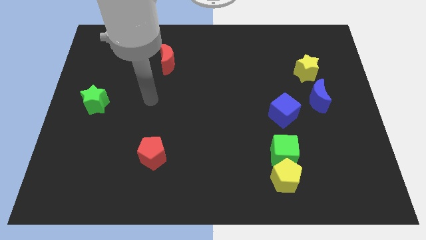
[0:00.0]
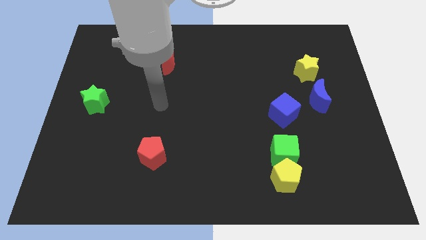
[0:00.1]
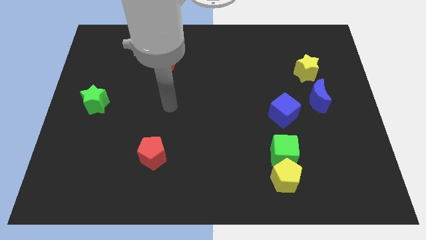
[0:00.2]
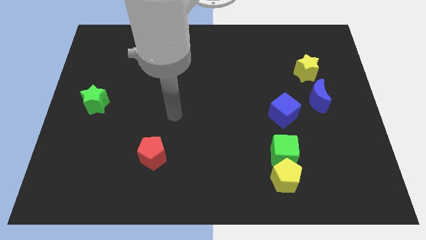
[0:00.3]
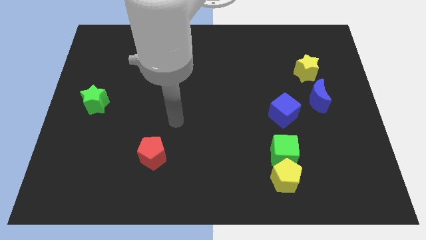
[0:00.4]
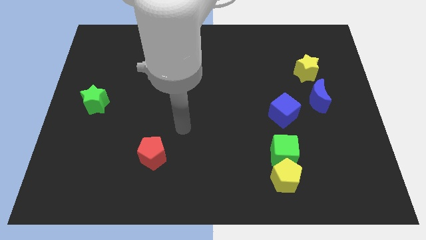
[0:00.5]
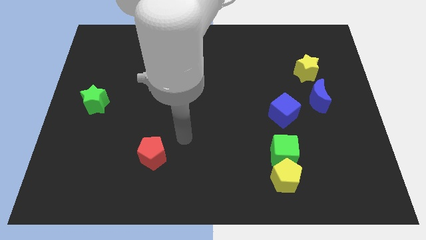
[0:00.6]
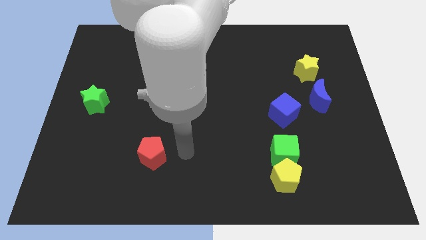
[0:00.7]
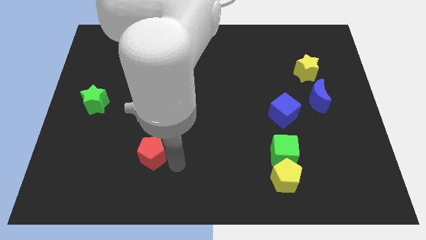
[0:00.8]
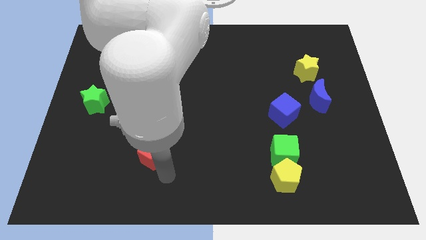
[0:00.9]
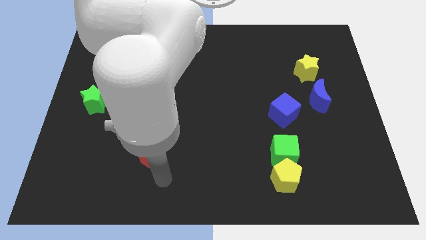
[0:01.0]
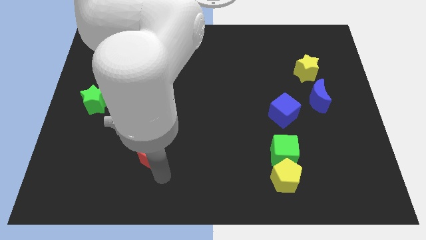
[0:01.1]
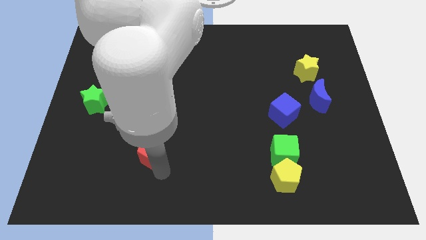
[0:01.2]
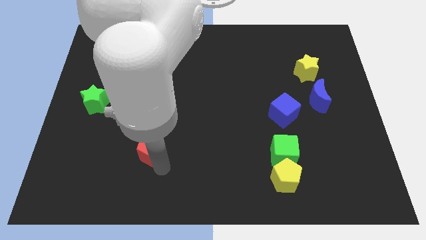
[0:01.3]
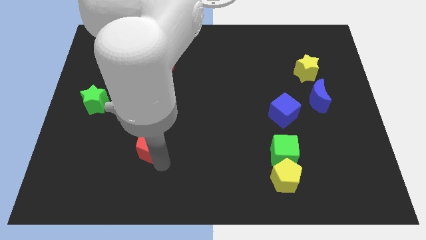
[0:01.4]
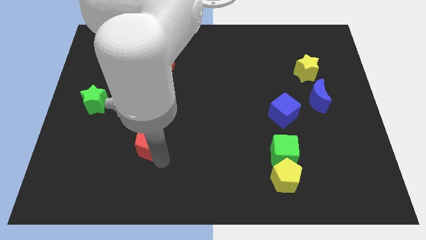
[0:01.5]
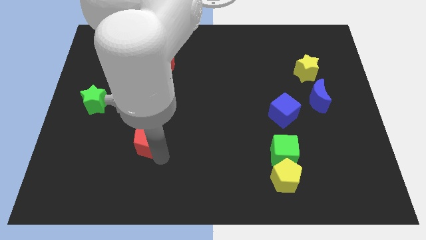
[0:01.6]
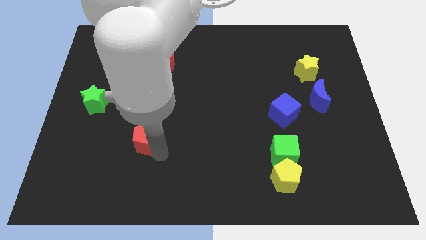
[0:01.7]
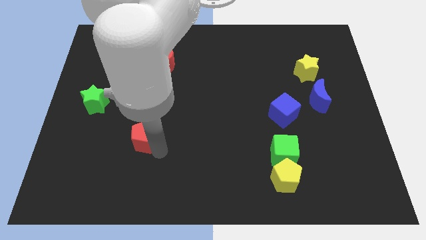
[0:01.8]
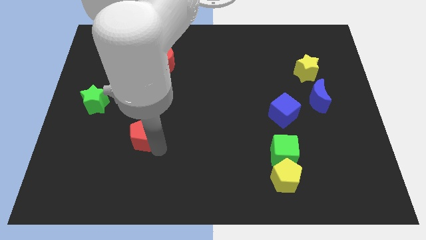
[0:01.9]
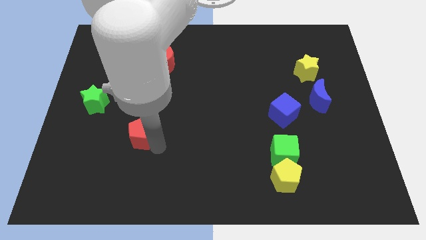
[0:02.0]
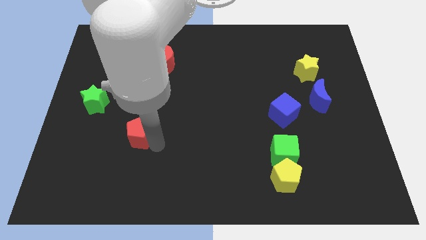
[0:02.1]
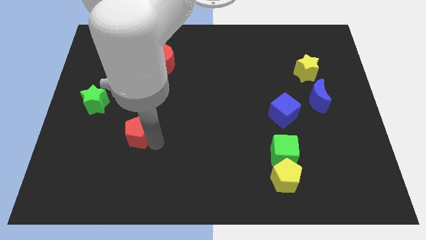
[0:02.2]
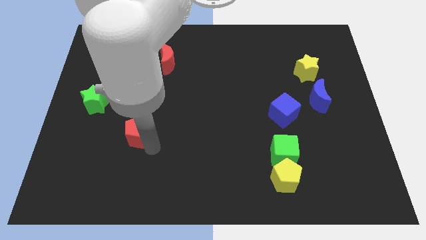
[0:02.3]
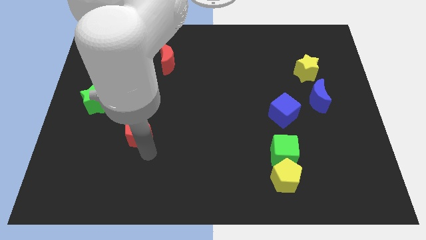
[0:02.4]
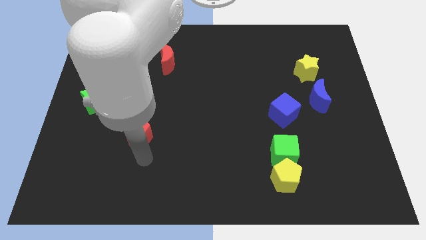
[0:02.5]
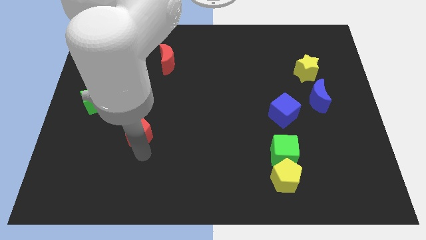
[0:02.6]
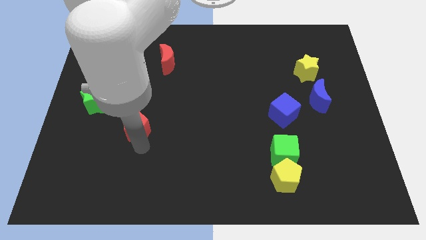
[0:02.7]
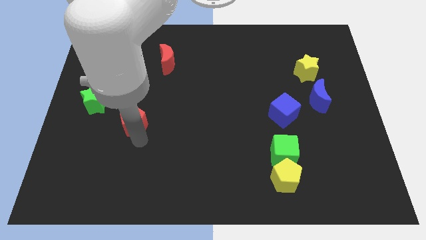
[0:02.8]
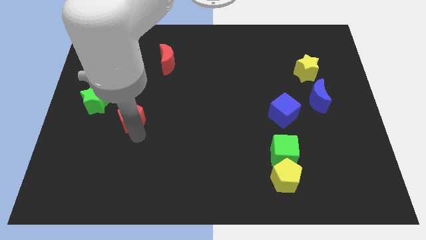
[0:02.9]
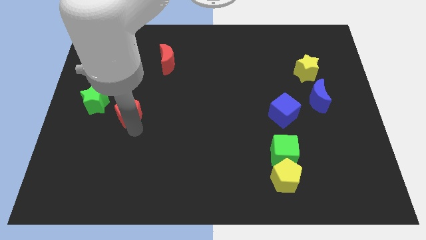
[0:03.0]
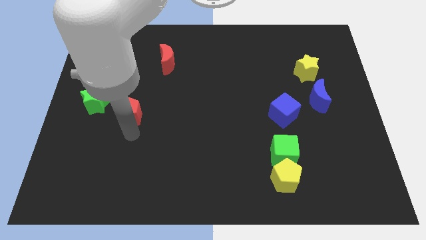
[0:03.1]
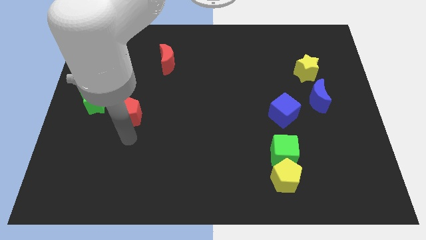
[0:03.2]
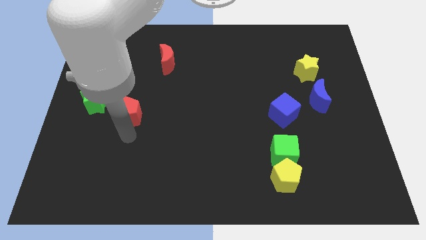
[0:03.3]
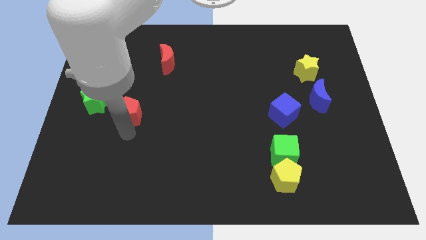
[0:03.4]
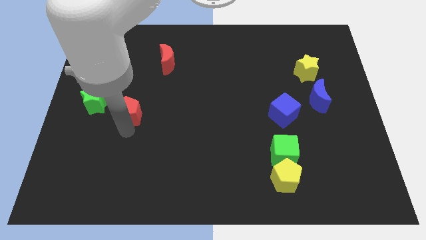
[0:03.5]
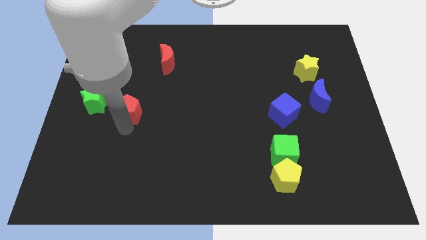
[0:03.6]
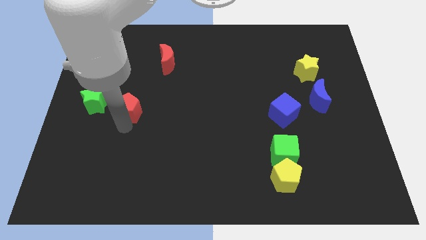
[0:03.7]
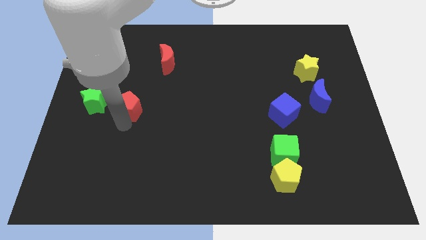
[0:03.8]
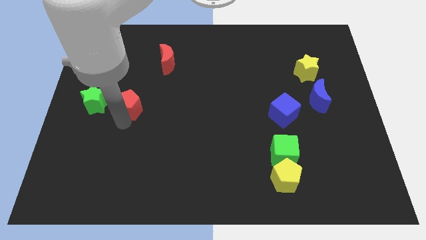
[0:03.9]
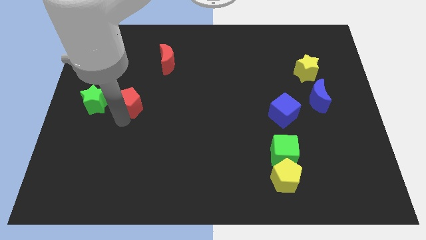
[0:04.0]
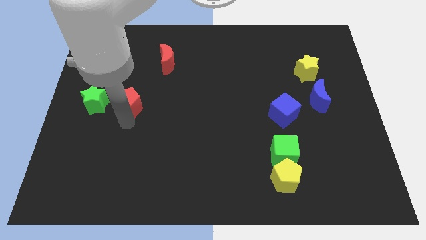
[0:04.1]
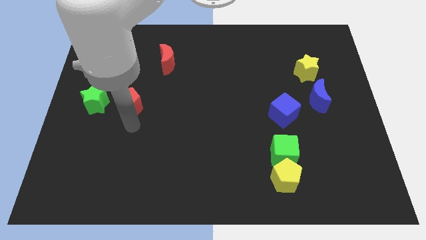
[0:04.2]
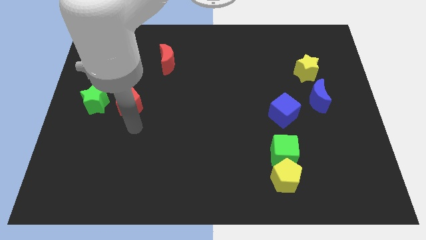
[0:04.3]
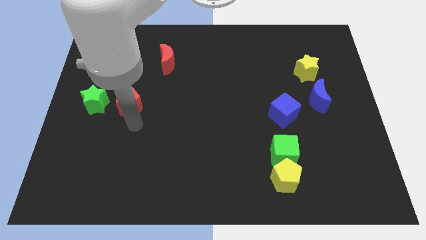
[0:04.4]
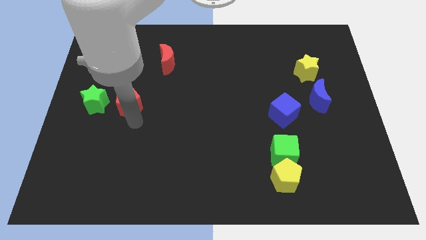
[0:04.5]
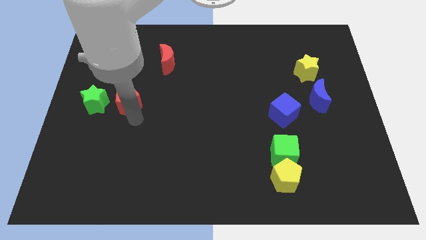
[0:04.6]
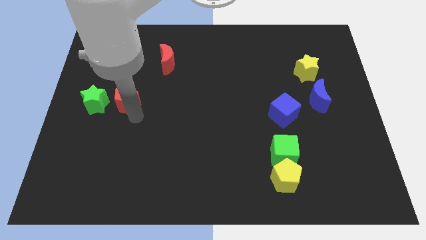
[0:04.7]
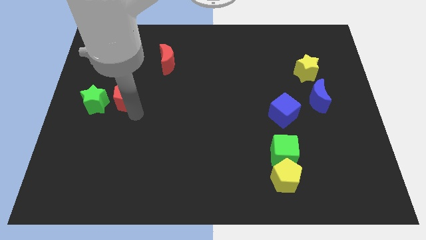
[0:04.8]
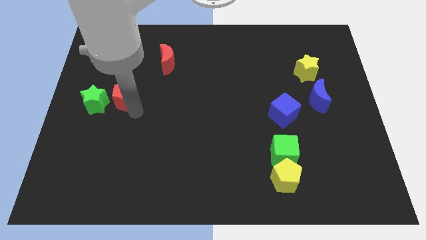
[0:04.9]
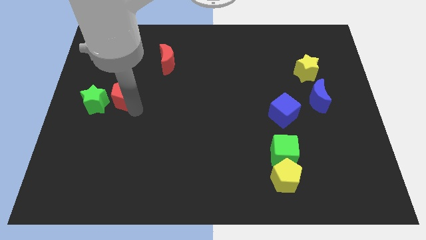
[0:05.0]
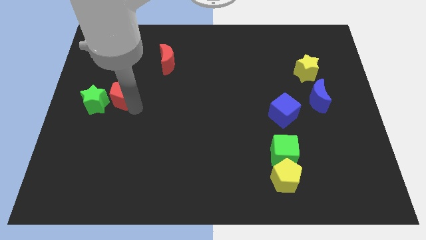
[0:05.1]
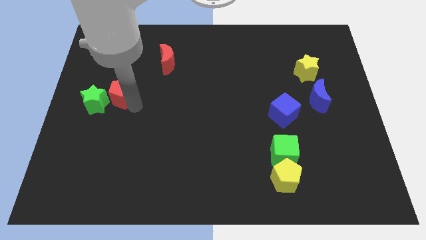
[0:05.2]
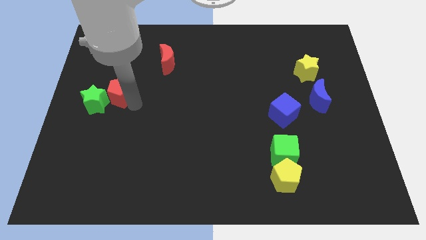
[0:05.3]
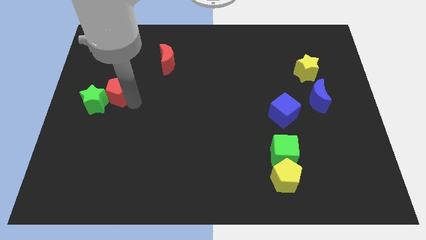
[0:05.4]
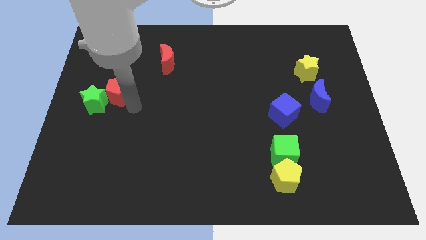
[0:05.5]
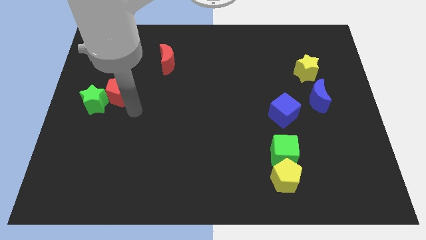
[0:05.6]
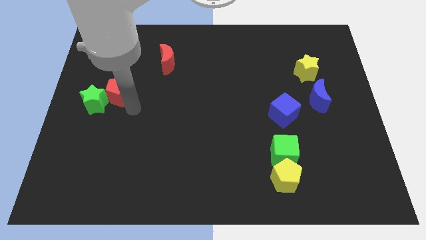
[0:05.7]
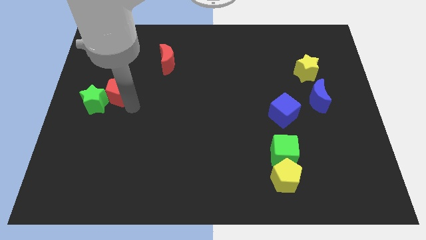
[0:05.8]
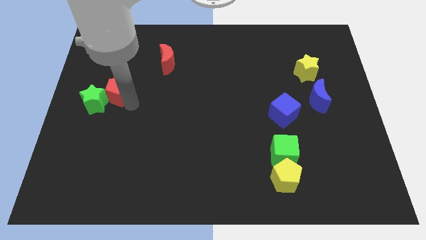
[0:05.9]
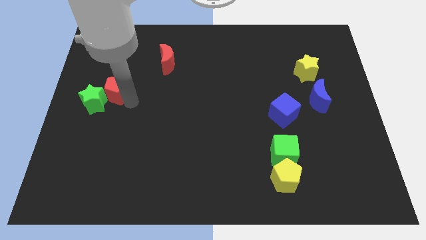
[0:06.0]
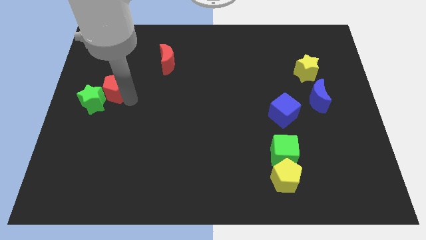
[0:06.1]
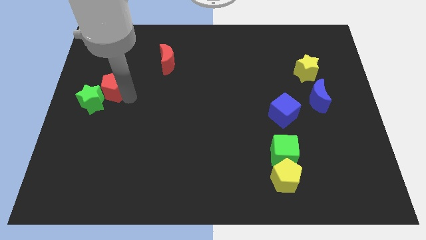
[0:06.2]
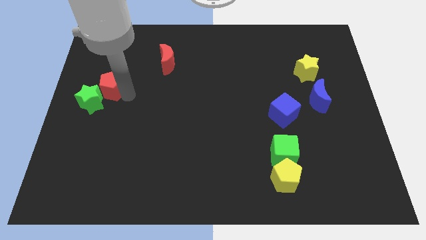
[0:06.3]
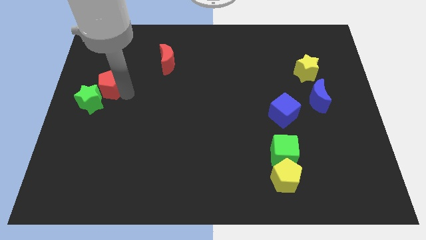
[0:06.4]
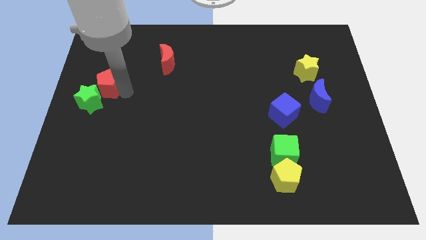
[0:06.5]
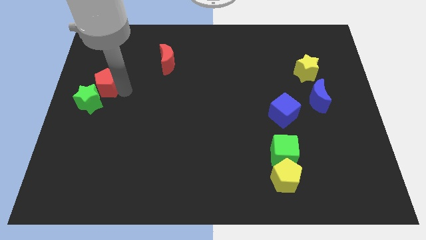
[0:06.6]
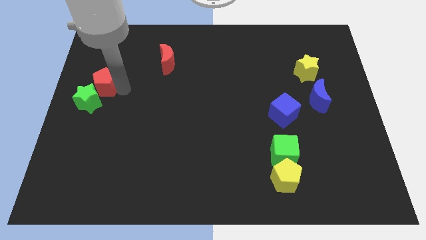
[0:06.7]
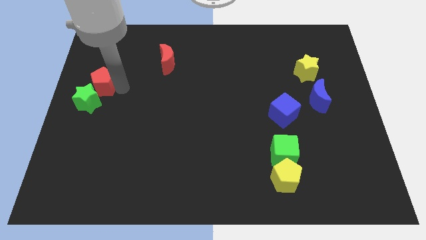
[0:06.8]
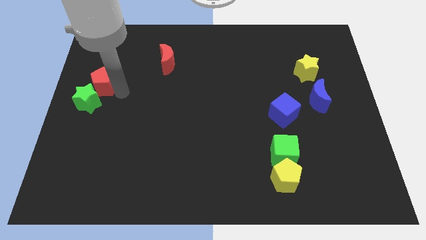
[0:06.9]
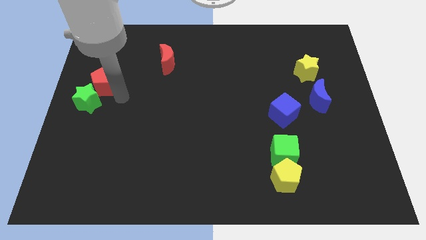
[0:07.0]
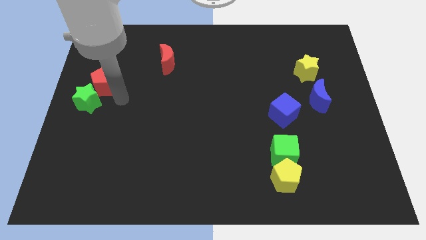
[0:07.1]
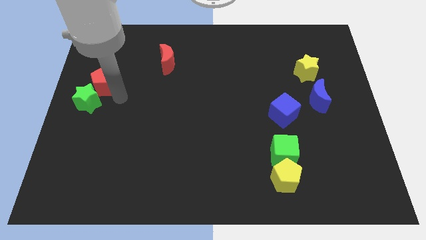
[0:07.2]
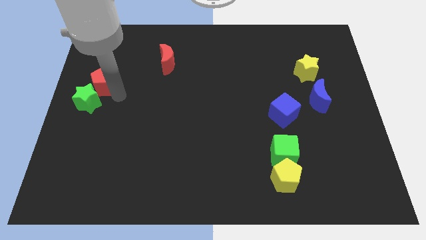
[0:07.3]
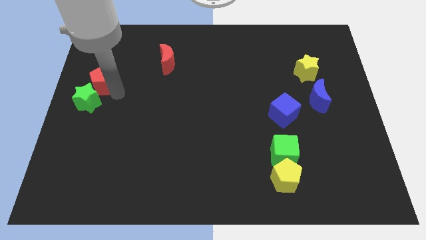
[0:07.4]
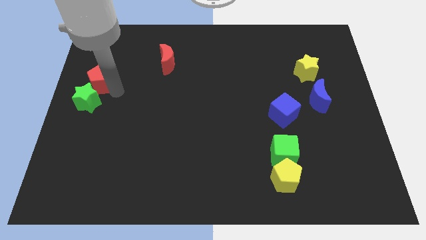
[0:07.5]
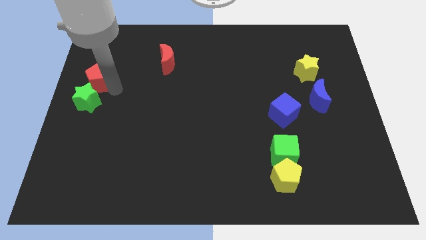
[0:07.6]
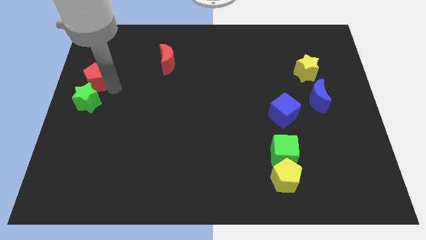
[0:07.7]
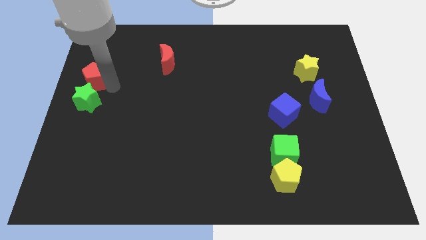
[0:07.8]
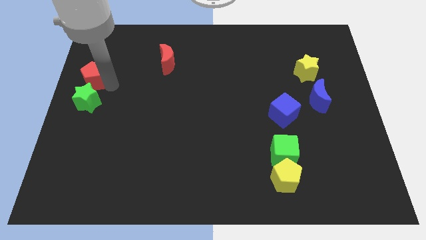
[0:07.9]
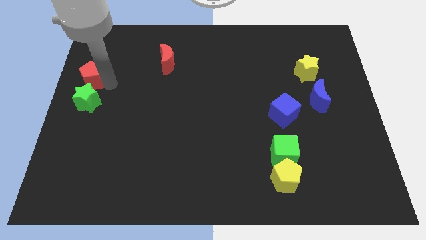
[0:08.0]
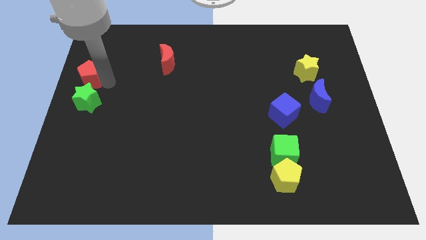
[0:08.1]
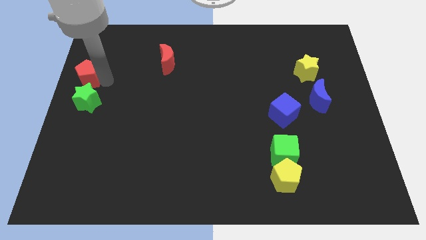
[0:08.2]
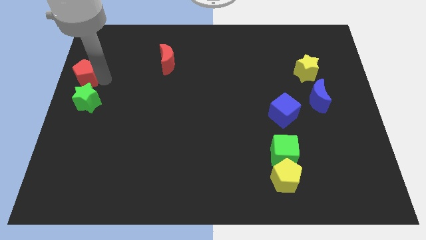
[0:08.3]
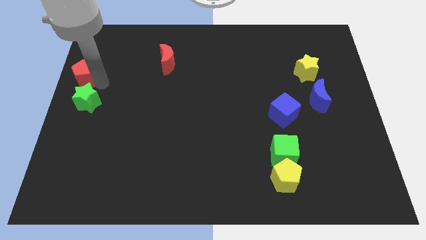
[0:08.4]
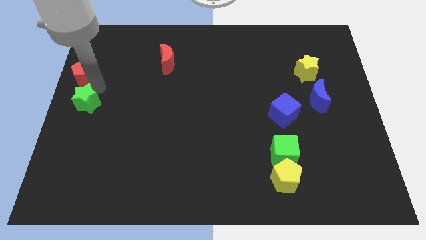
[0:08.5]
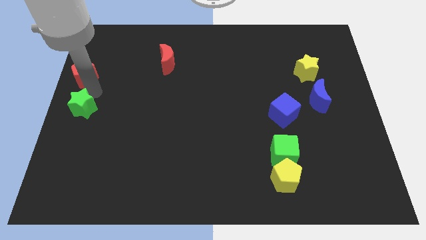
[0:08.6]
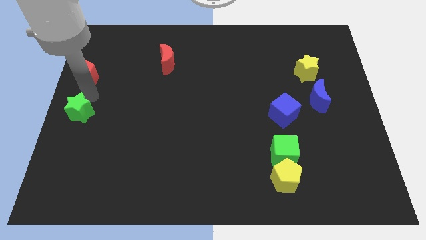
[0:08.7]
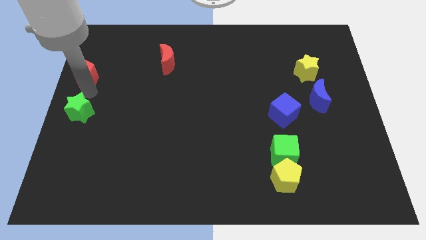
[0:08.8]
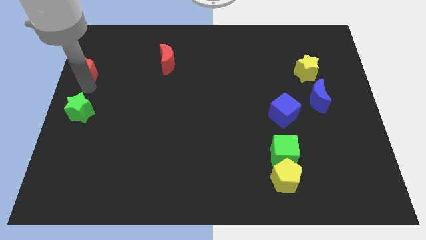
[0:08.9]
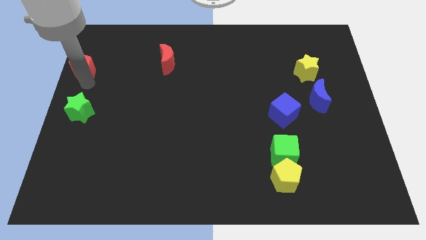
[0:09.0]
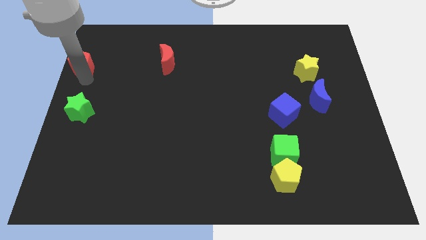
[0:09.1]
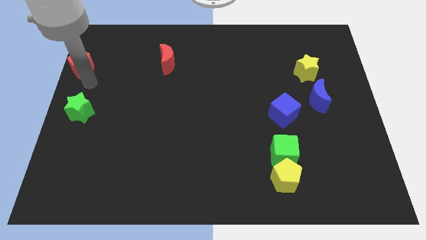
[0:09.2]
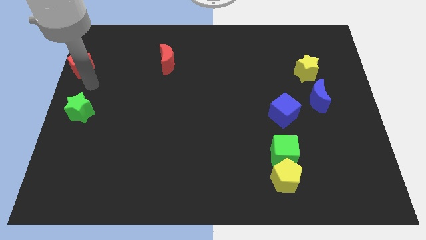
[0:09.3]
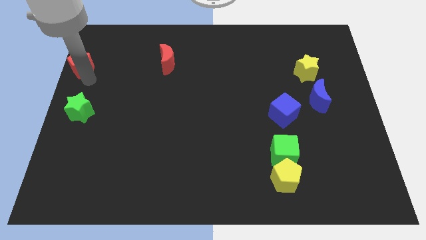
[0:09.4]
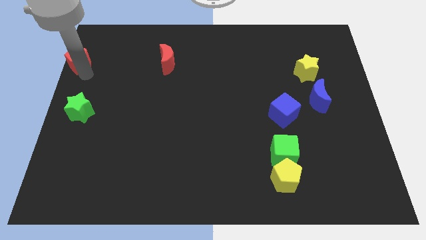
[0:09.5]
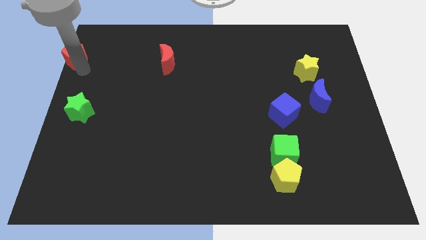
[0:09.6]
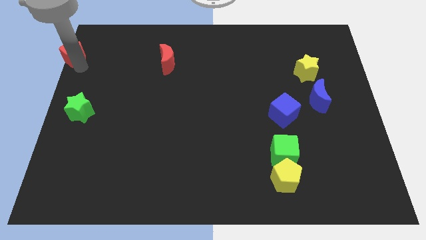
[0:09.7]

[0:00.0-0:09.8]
push the red pentagon to the top left corner
